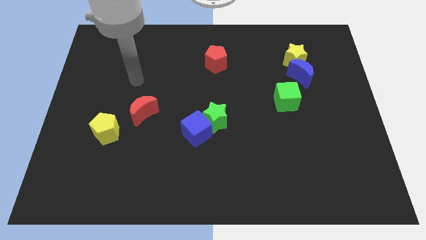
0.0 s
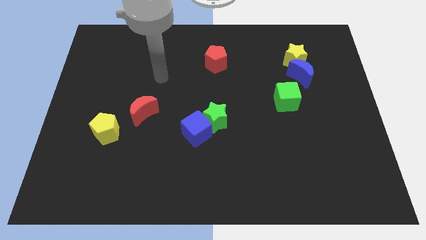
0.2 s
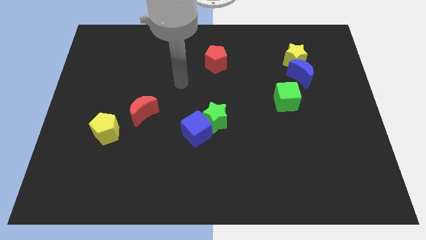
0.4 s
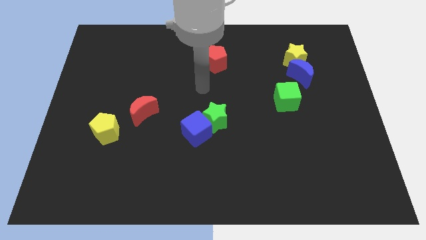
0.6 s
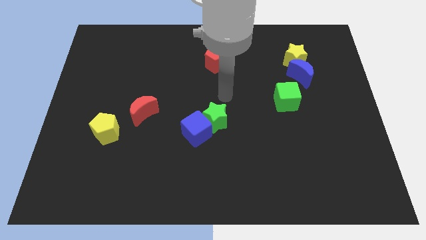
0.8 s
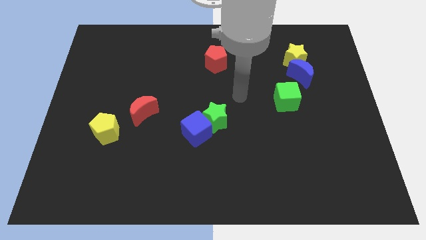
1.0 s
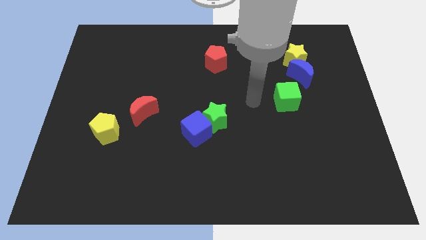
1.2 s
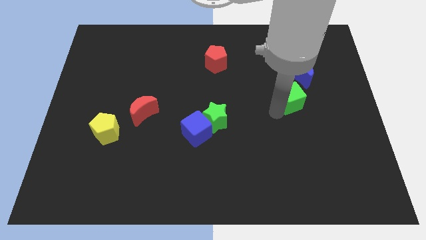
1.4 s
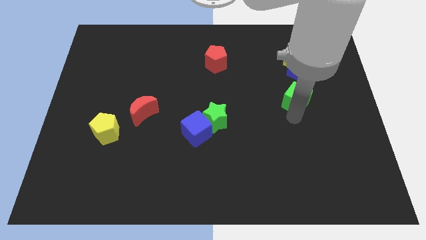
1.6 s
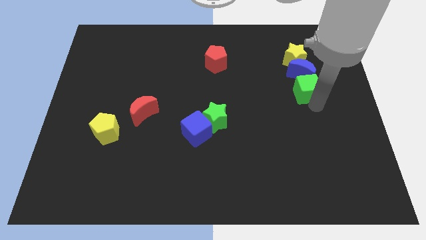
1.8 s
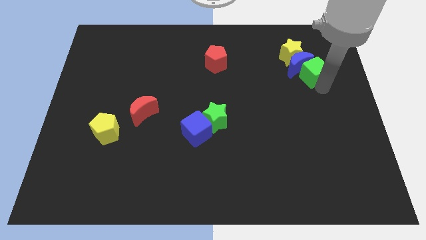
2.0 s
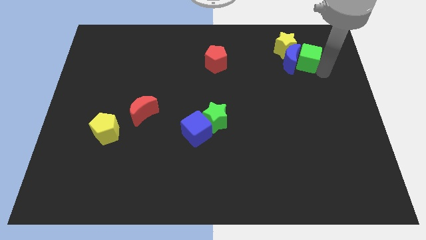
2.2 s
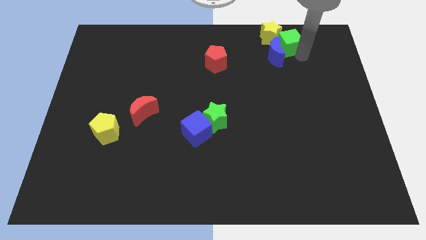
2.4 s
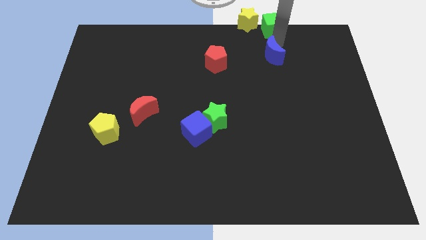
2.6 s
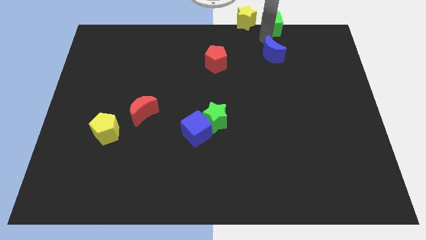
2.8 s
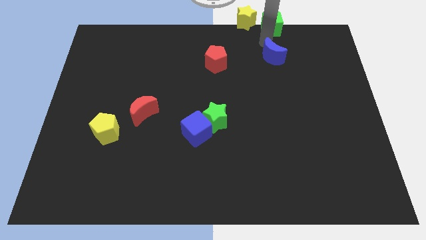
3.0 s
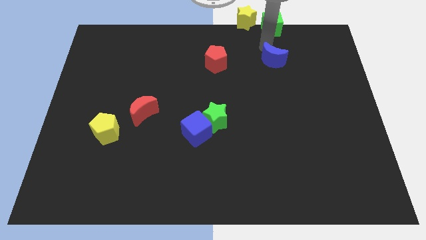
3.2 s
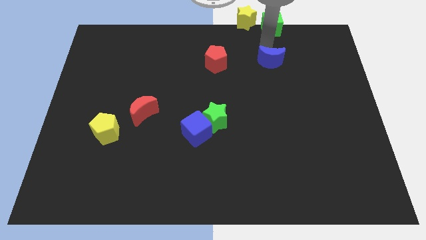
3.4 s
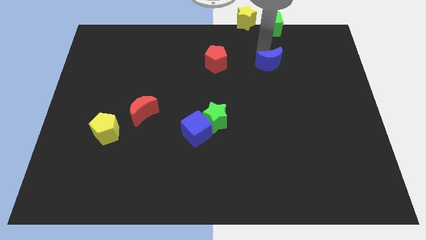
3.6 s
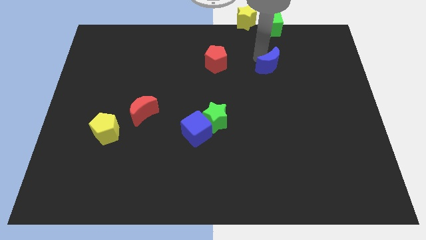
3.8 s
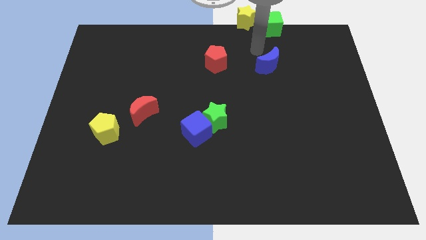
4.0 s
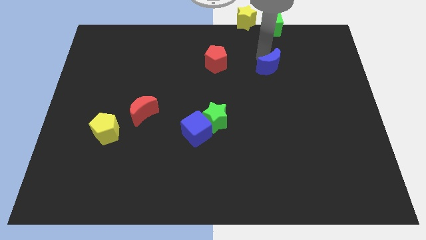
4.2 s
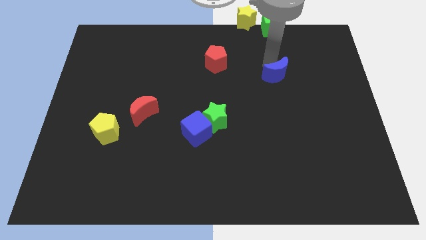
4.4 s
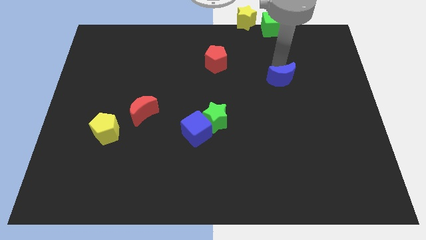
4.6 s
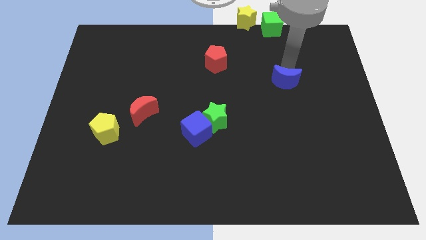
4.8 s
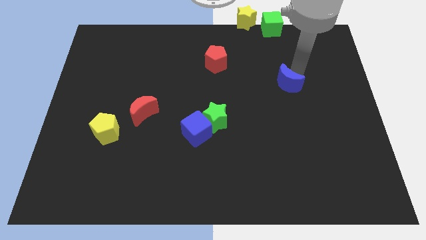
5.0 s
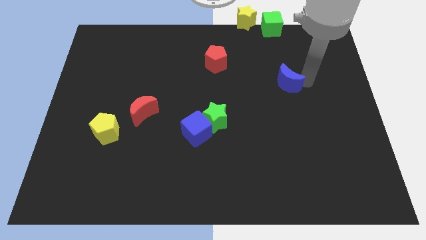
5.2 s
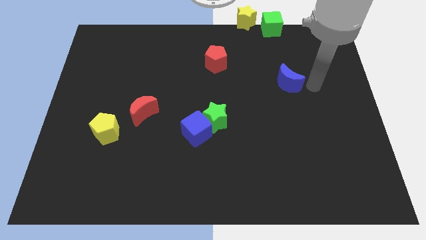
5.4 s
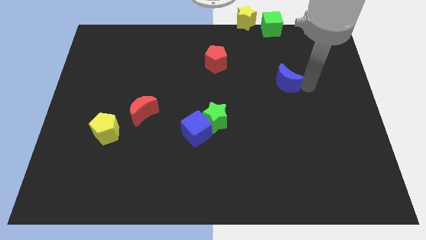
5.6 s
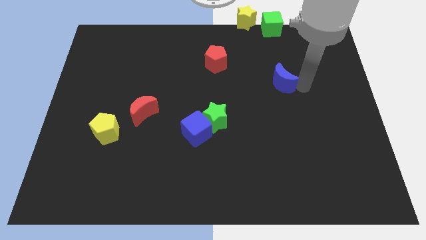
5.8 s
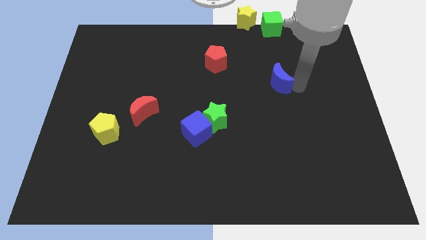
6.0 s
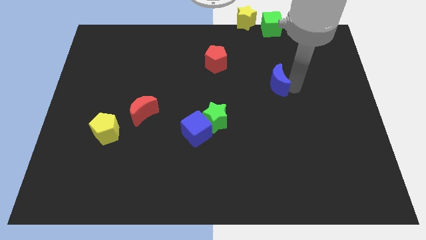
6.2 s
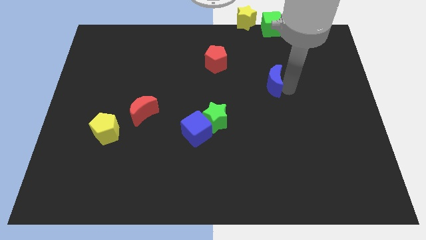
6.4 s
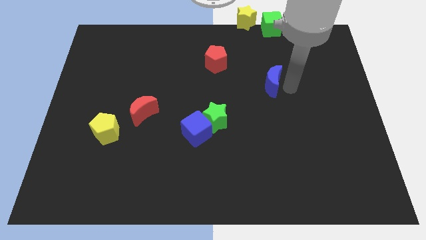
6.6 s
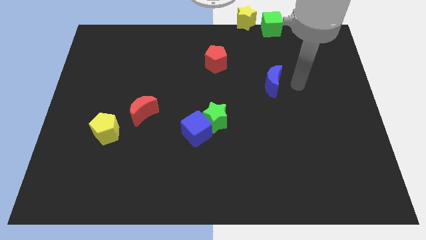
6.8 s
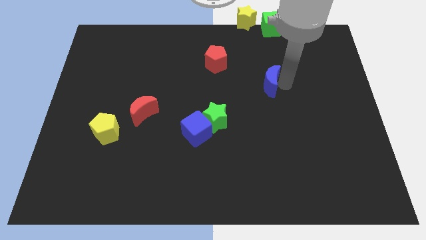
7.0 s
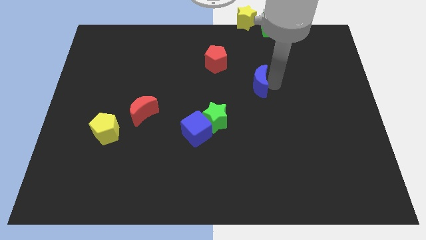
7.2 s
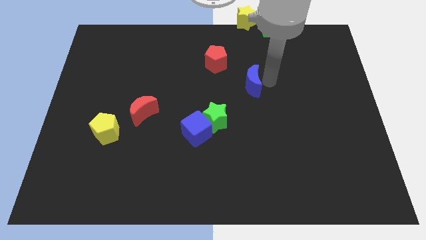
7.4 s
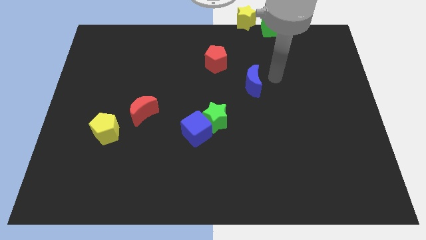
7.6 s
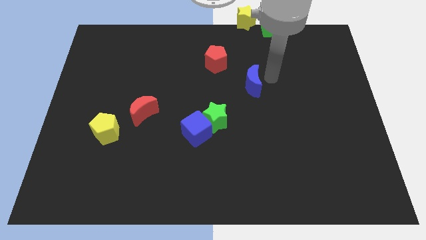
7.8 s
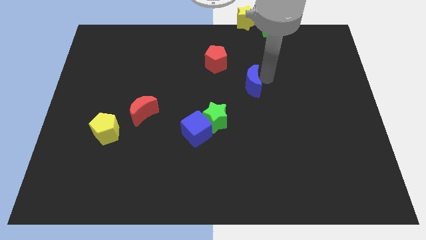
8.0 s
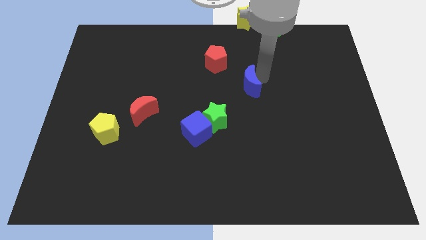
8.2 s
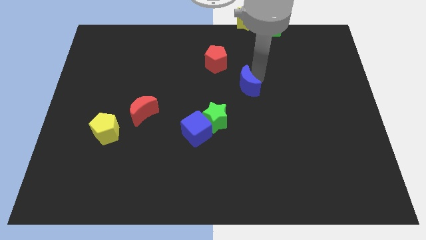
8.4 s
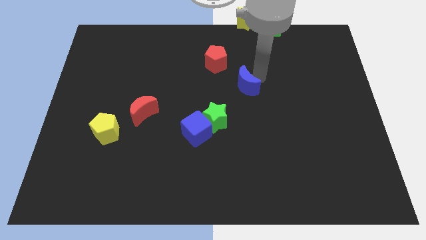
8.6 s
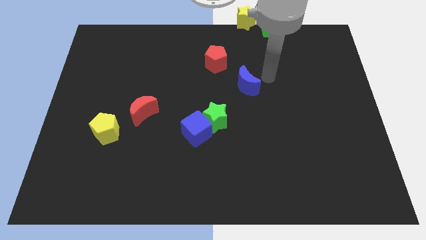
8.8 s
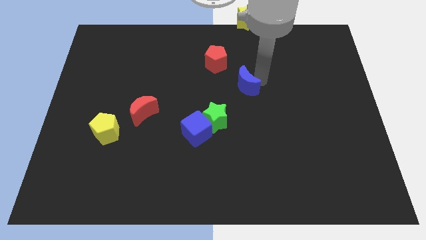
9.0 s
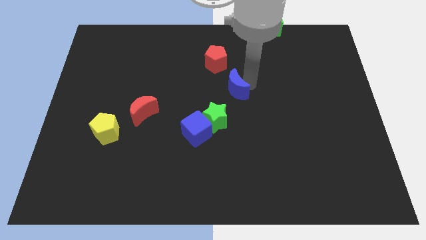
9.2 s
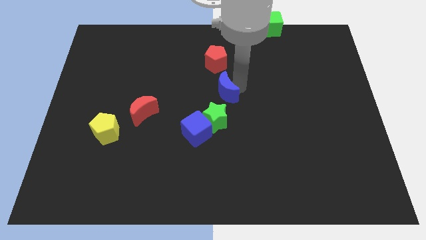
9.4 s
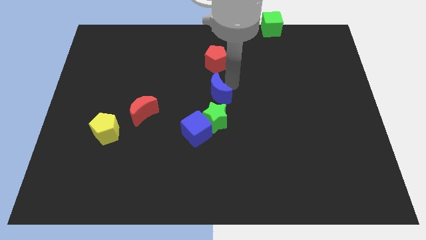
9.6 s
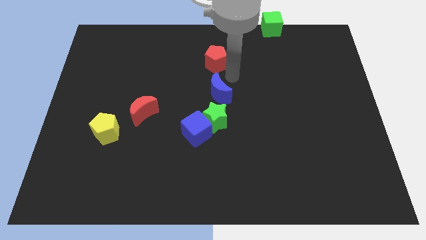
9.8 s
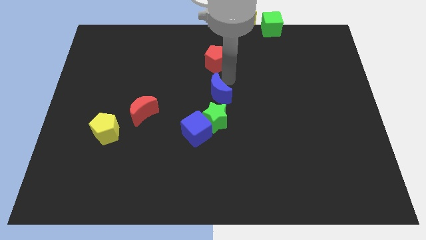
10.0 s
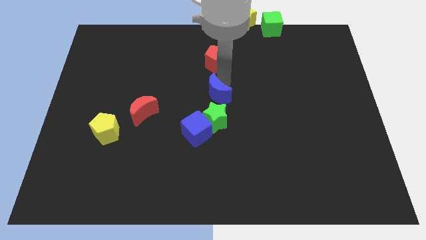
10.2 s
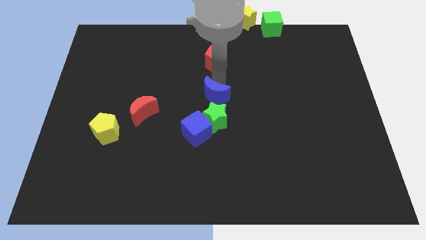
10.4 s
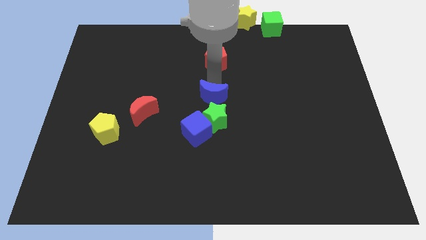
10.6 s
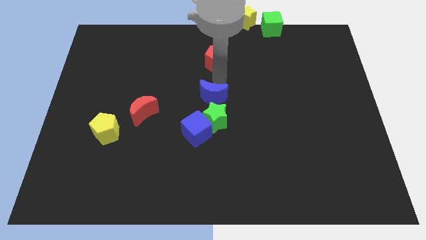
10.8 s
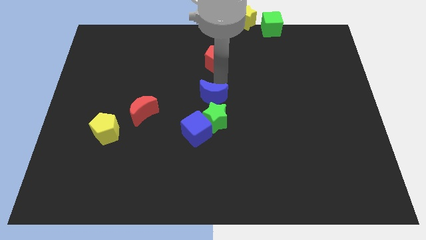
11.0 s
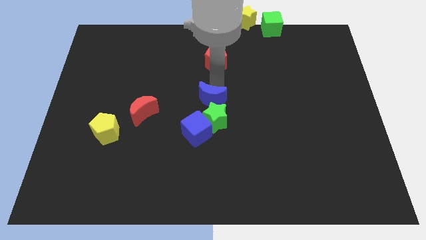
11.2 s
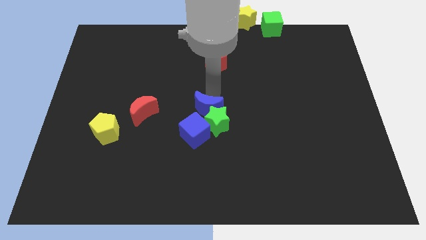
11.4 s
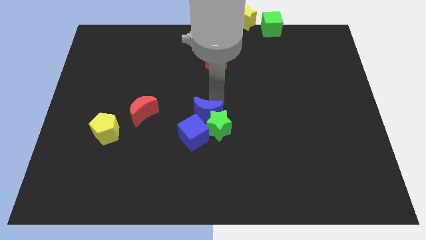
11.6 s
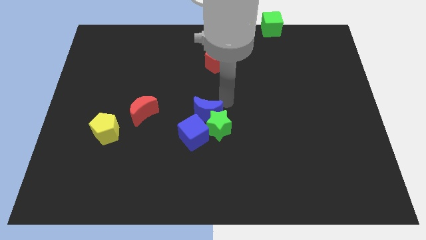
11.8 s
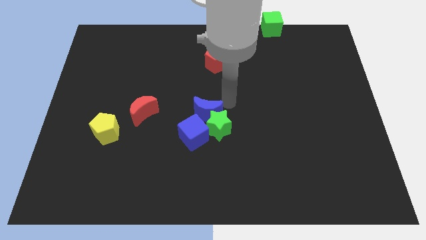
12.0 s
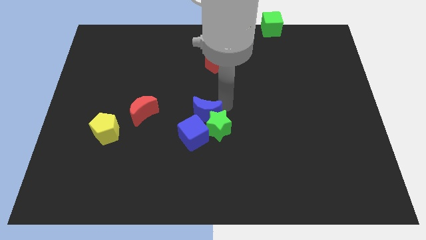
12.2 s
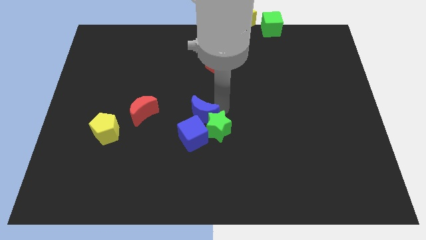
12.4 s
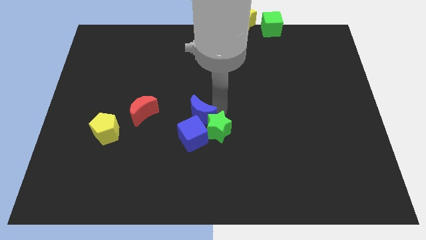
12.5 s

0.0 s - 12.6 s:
move the blue moon towards the blue cube

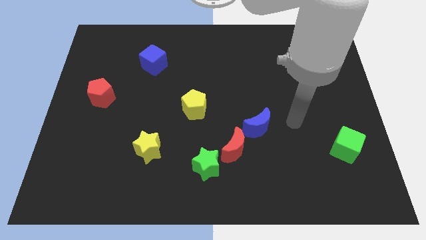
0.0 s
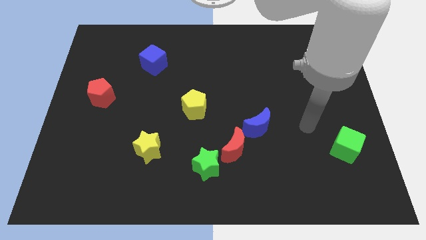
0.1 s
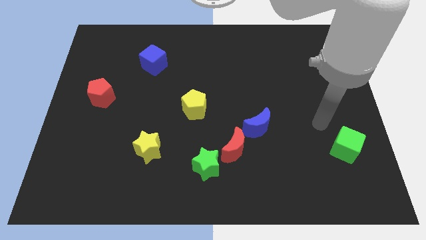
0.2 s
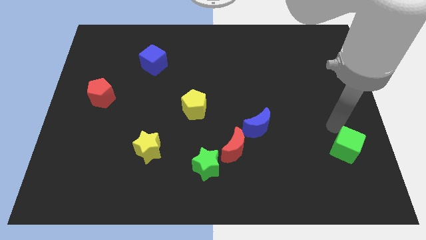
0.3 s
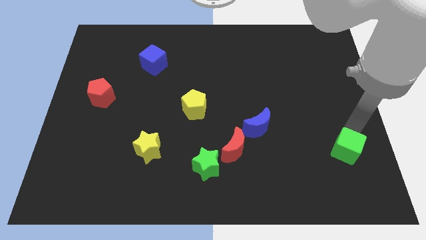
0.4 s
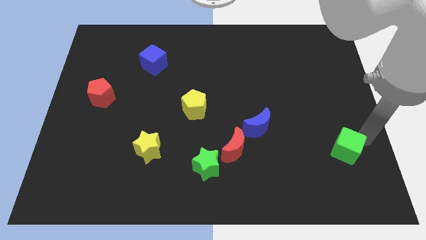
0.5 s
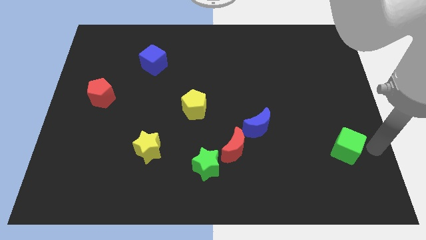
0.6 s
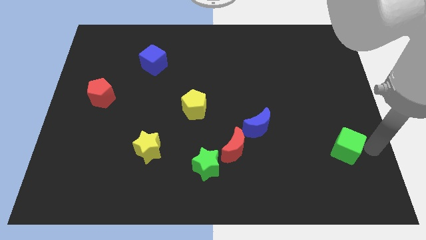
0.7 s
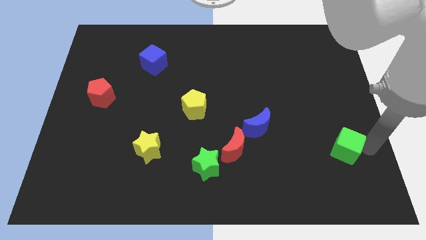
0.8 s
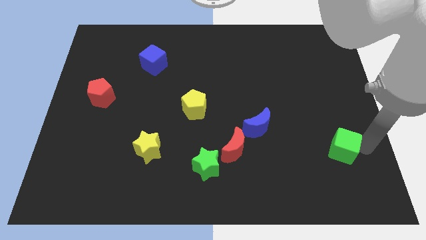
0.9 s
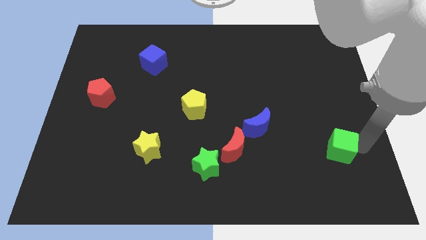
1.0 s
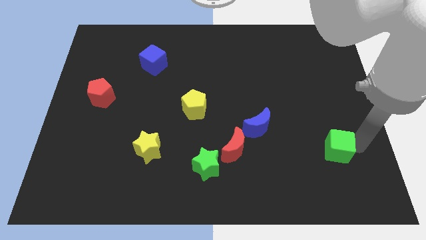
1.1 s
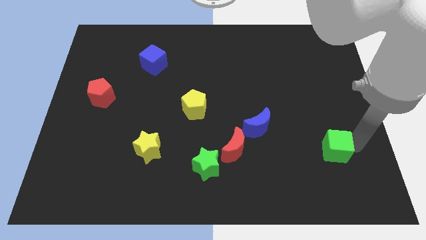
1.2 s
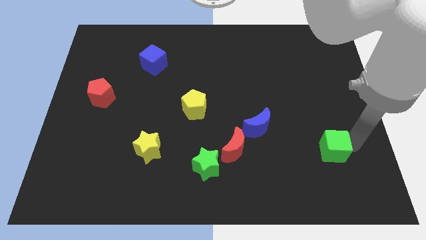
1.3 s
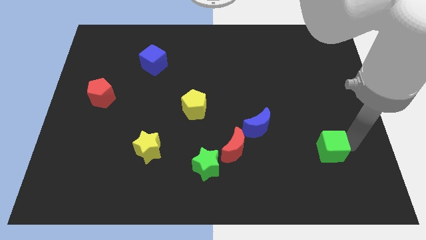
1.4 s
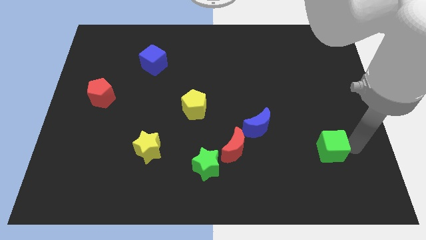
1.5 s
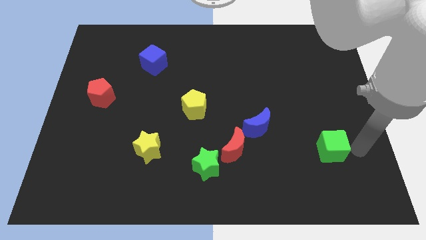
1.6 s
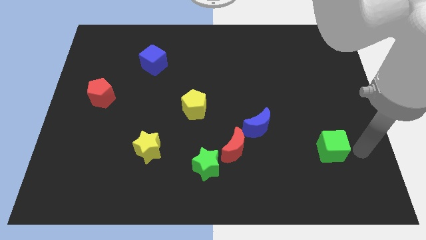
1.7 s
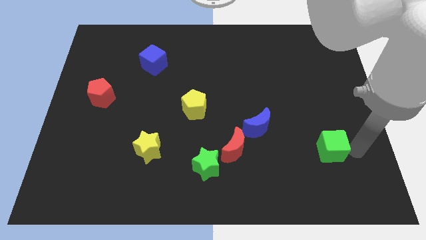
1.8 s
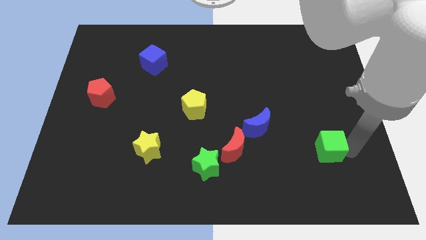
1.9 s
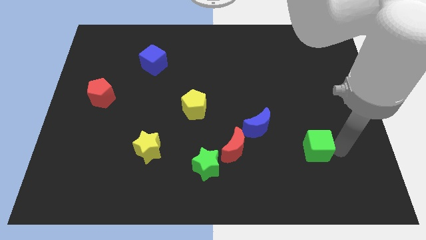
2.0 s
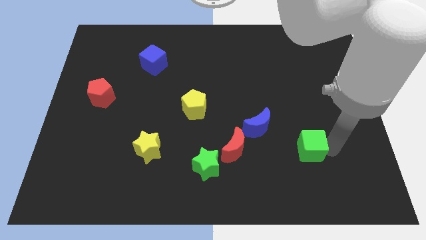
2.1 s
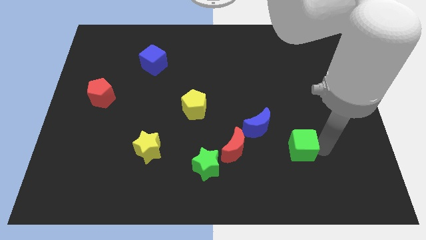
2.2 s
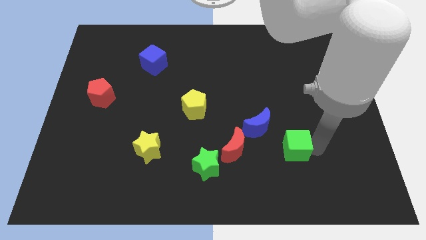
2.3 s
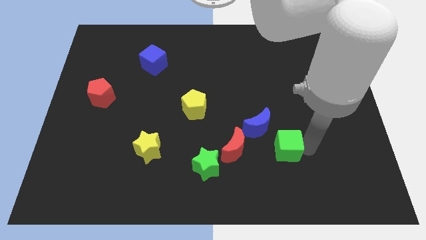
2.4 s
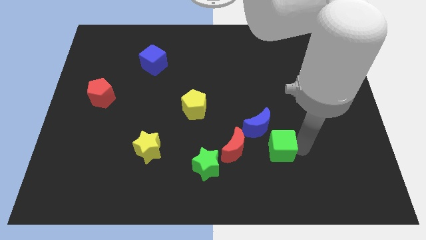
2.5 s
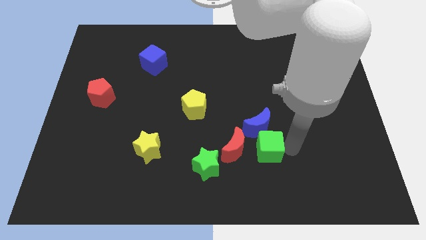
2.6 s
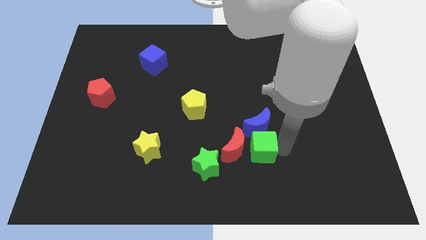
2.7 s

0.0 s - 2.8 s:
push the green cube close to the red moon
